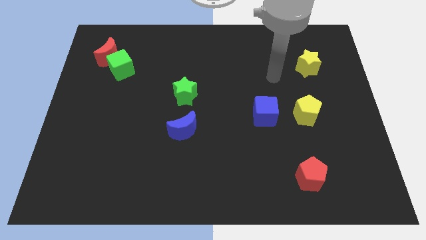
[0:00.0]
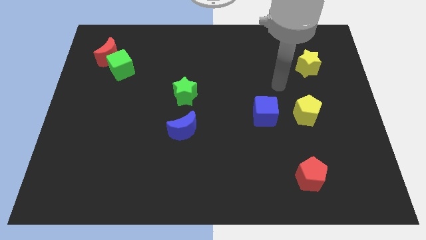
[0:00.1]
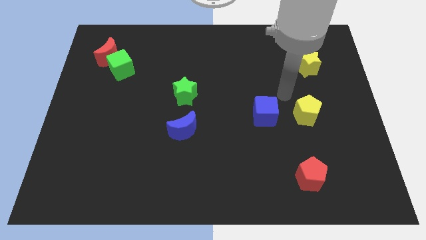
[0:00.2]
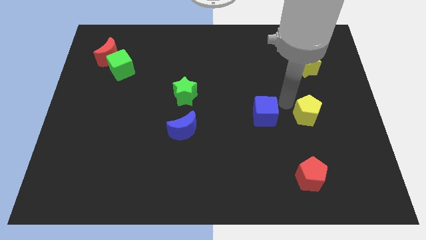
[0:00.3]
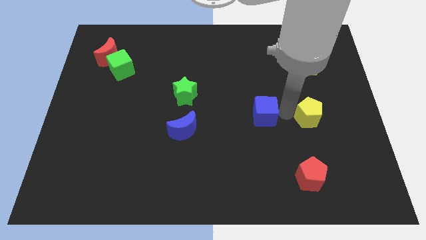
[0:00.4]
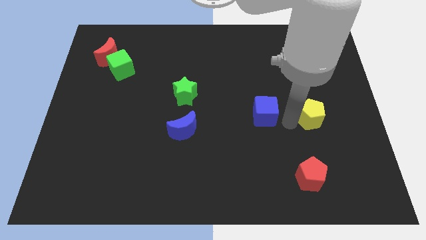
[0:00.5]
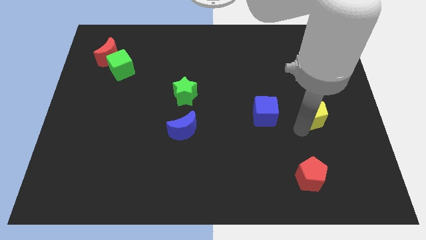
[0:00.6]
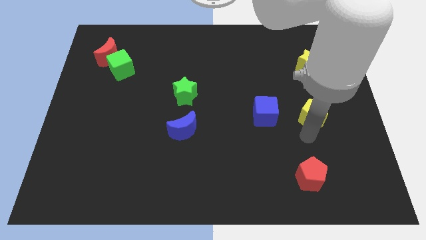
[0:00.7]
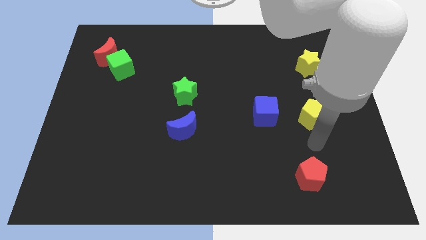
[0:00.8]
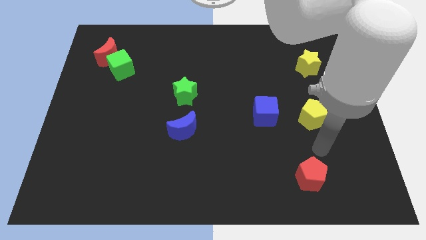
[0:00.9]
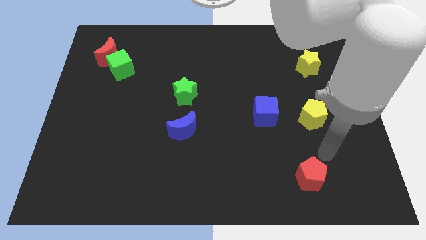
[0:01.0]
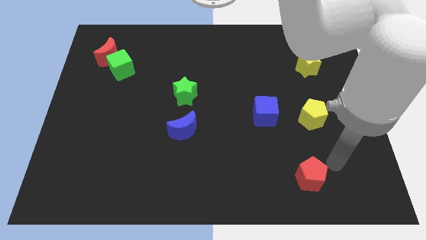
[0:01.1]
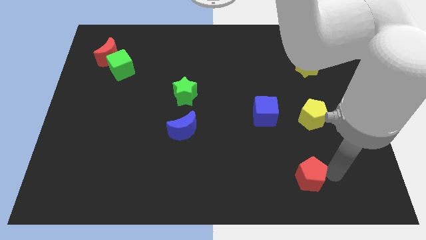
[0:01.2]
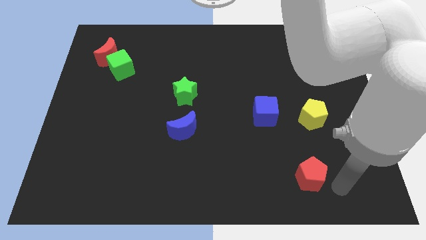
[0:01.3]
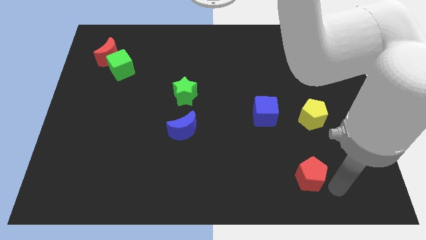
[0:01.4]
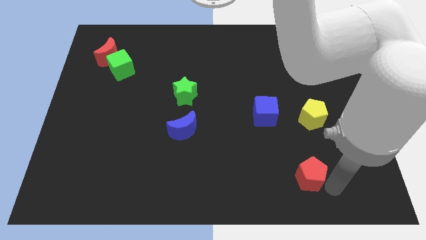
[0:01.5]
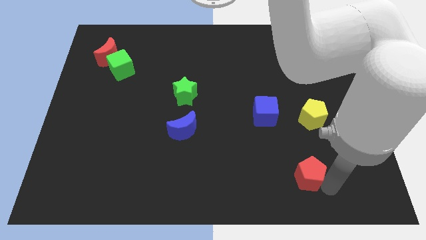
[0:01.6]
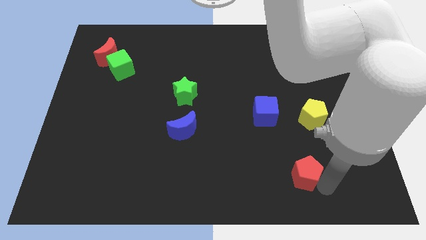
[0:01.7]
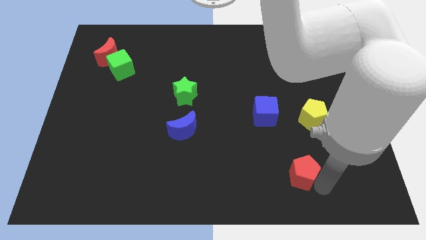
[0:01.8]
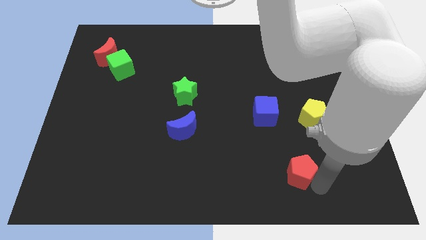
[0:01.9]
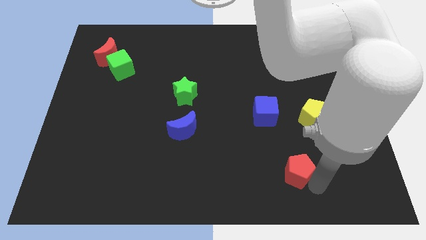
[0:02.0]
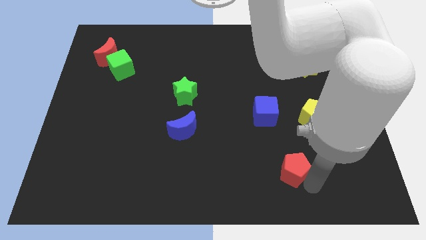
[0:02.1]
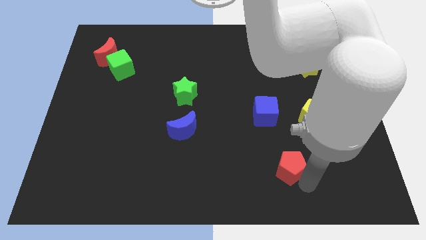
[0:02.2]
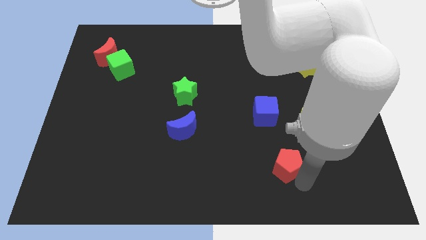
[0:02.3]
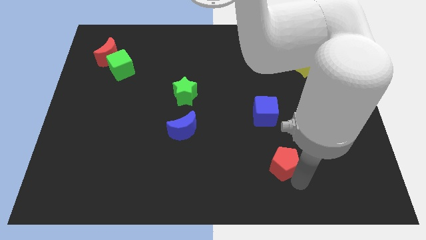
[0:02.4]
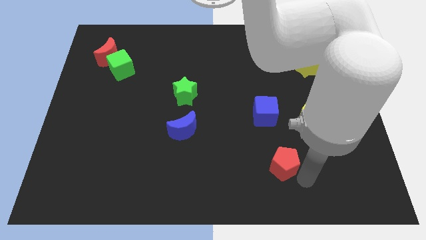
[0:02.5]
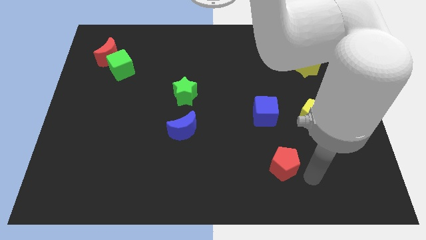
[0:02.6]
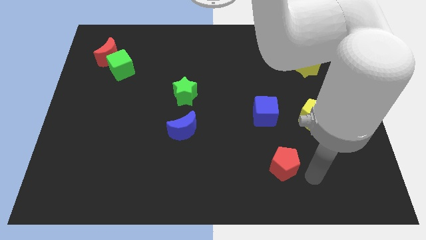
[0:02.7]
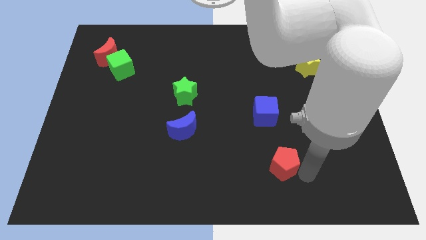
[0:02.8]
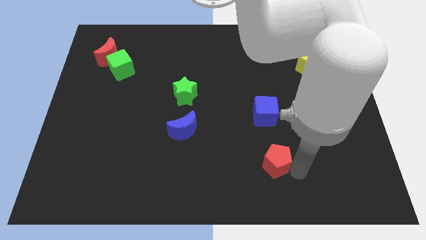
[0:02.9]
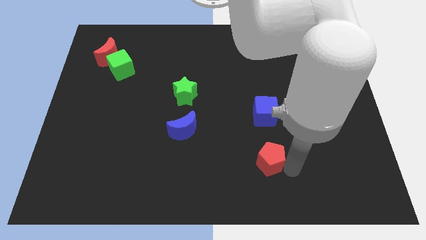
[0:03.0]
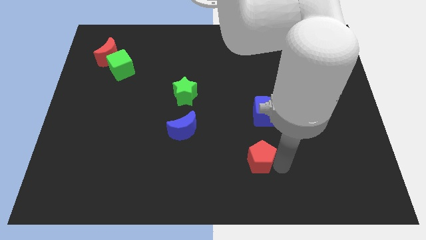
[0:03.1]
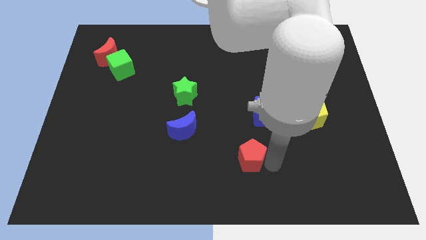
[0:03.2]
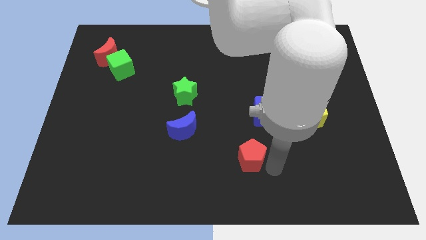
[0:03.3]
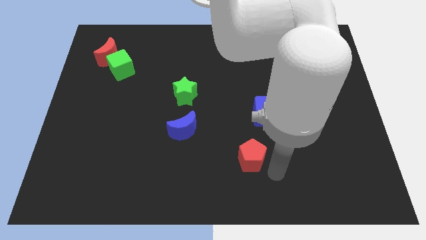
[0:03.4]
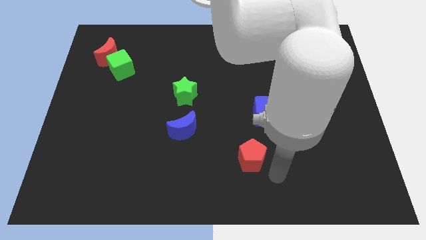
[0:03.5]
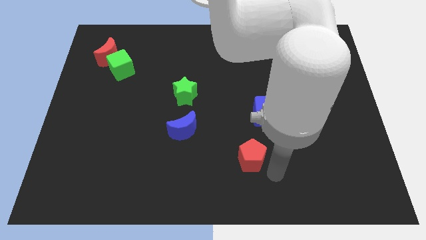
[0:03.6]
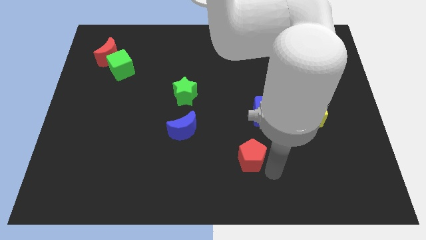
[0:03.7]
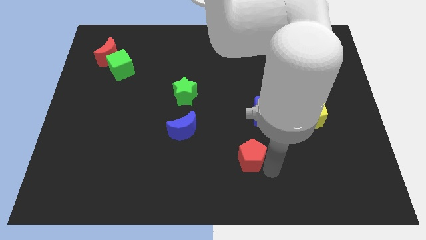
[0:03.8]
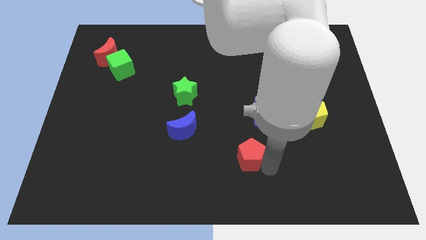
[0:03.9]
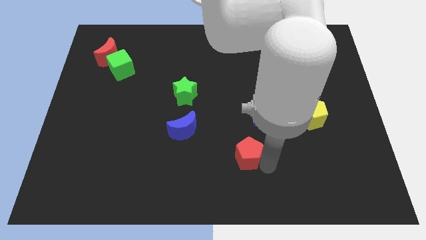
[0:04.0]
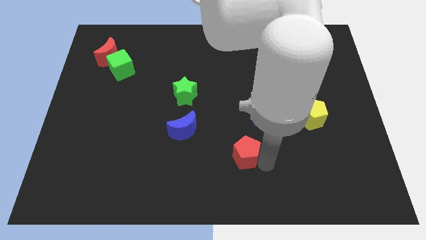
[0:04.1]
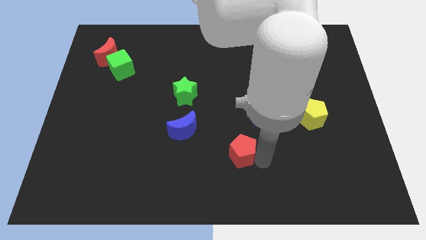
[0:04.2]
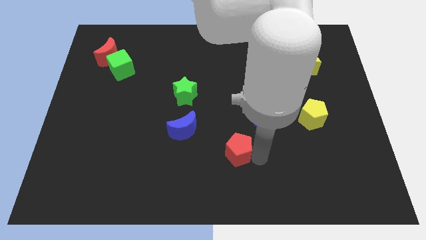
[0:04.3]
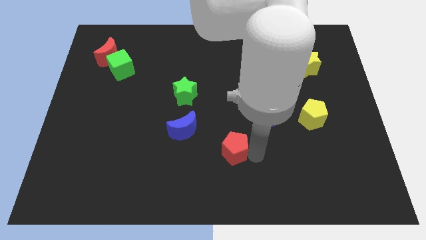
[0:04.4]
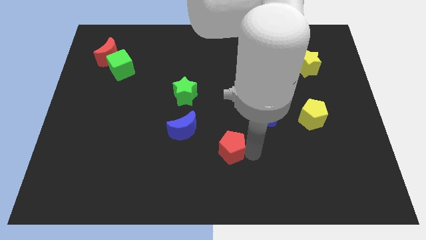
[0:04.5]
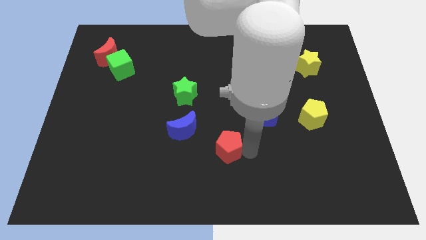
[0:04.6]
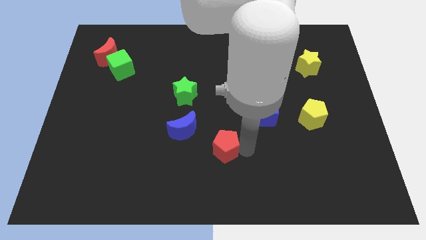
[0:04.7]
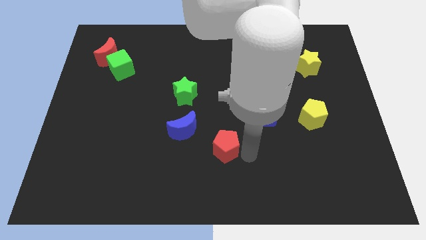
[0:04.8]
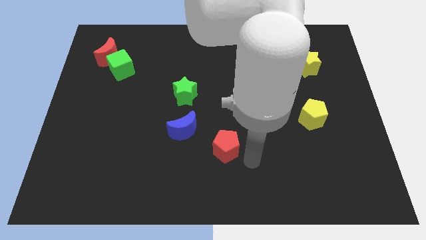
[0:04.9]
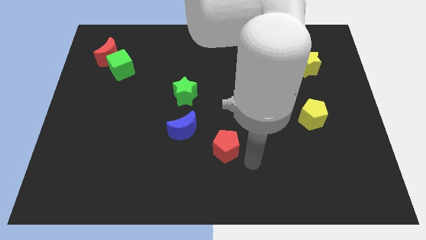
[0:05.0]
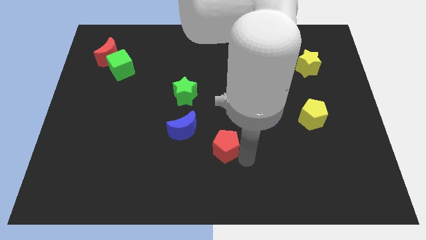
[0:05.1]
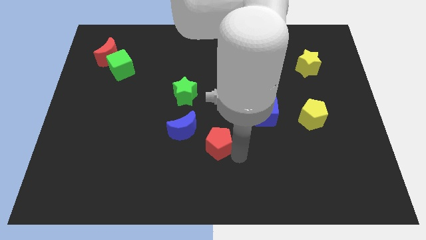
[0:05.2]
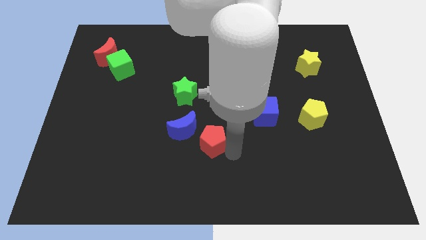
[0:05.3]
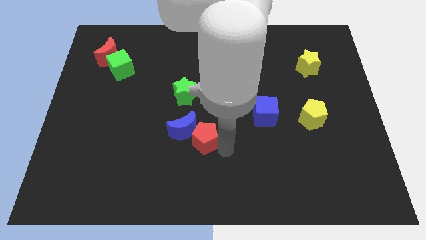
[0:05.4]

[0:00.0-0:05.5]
move the red pentagon towards the blue moon

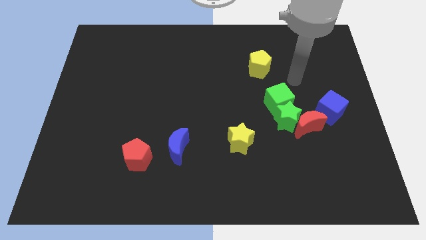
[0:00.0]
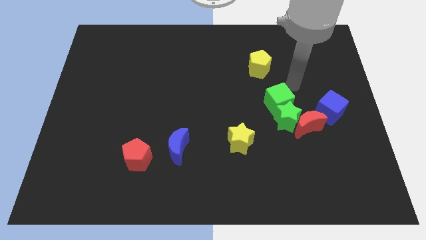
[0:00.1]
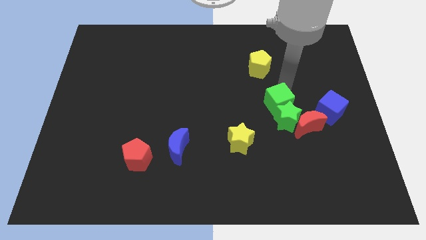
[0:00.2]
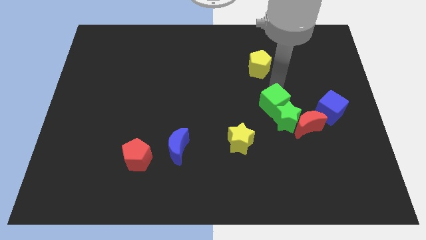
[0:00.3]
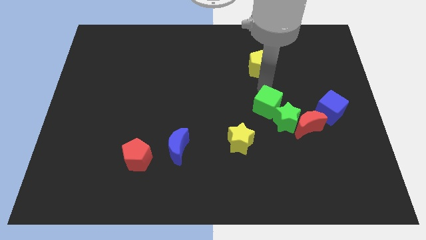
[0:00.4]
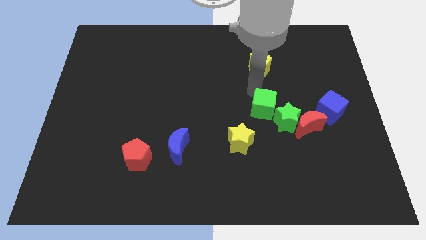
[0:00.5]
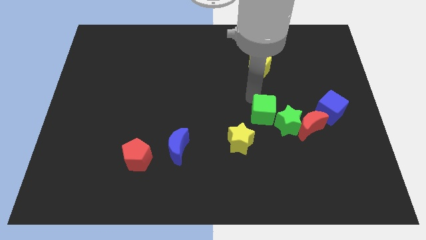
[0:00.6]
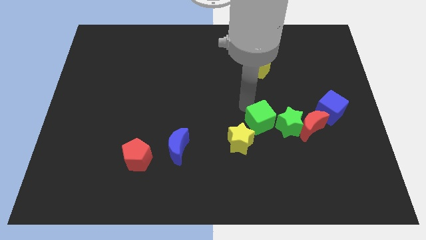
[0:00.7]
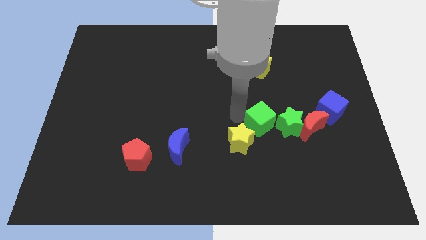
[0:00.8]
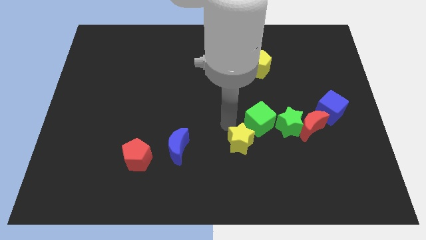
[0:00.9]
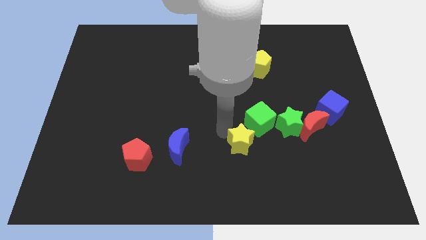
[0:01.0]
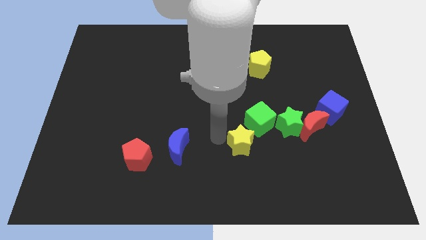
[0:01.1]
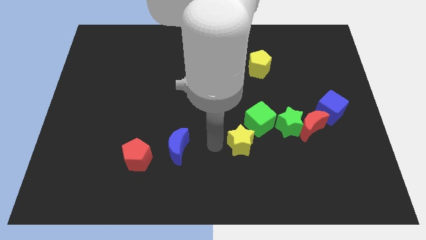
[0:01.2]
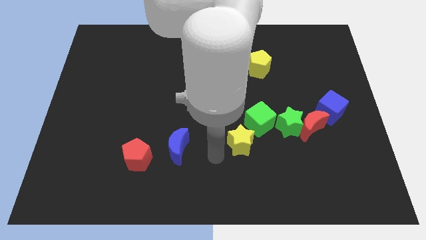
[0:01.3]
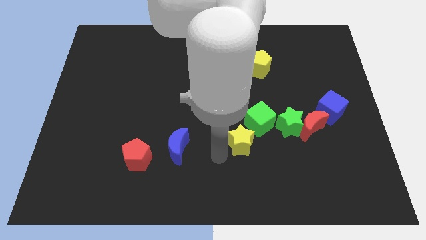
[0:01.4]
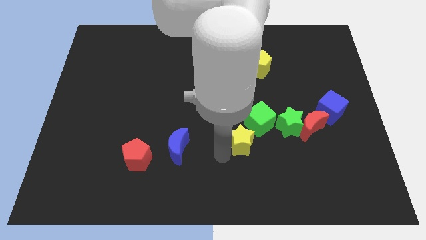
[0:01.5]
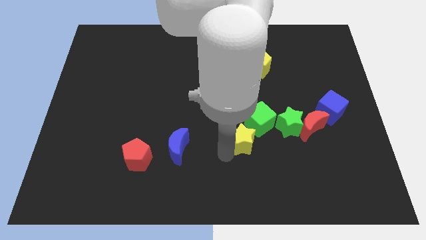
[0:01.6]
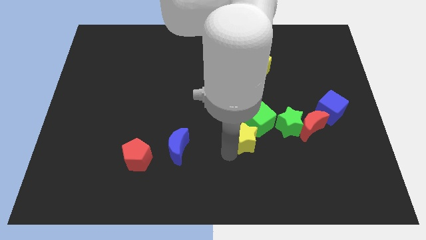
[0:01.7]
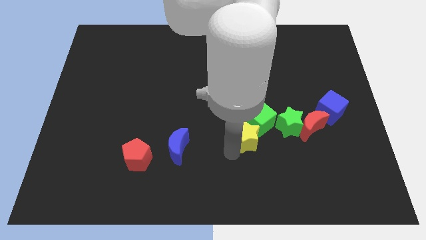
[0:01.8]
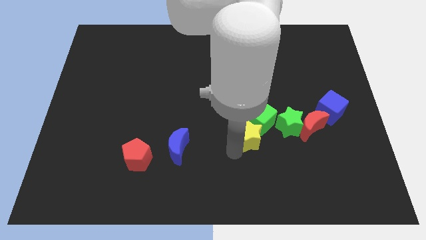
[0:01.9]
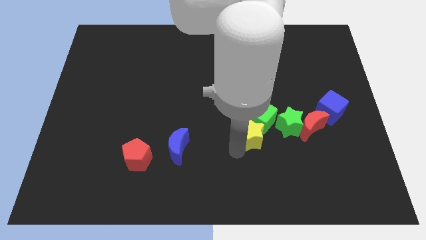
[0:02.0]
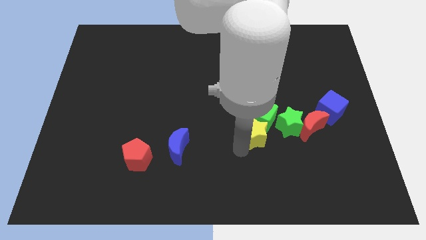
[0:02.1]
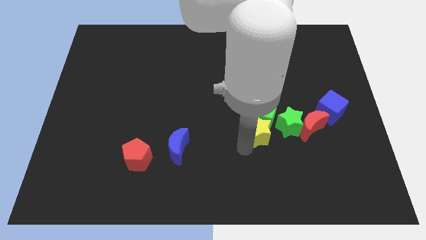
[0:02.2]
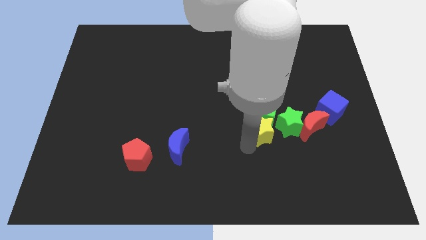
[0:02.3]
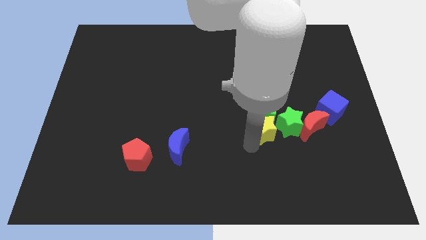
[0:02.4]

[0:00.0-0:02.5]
move the yellow star next to the green star
